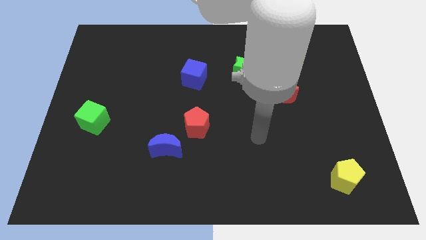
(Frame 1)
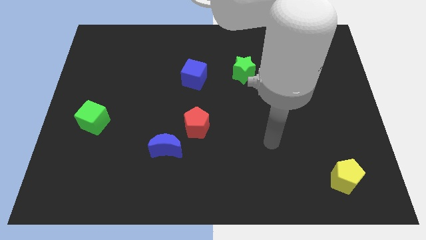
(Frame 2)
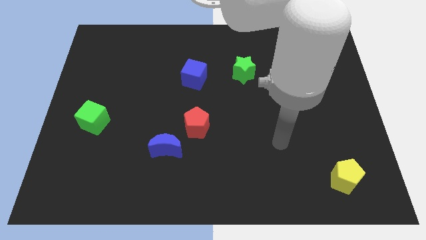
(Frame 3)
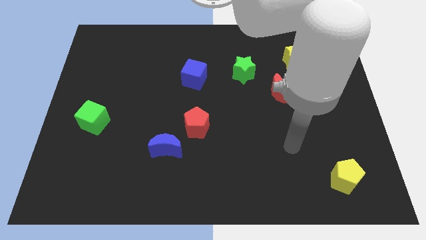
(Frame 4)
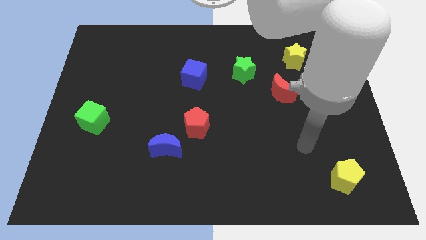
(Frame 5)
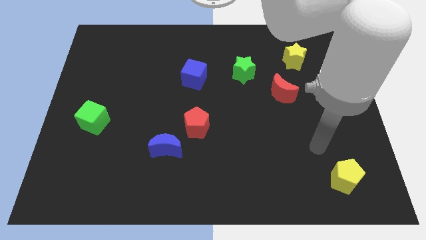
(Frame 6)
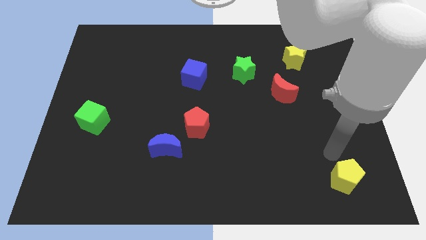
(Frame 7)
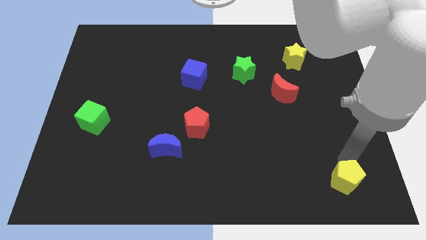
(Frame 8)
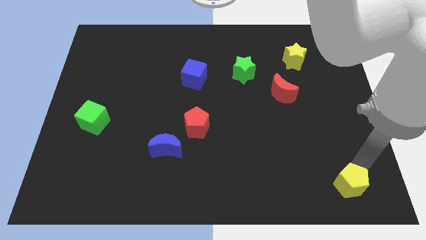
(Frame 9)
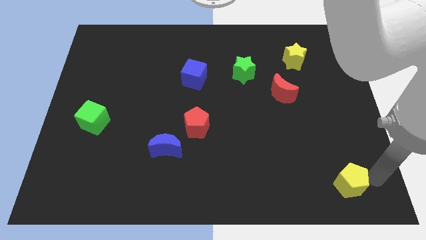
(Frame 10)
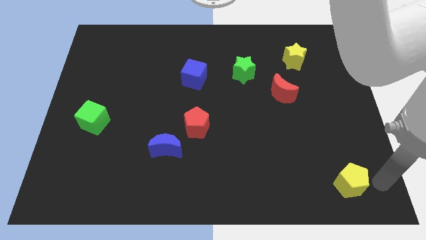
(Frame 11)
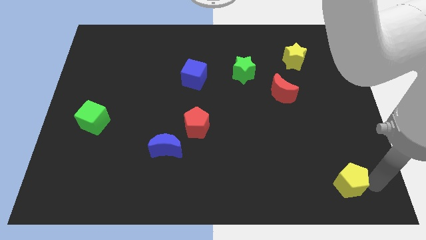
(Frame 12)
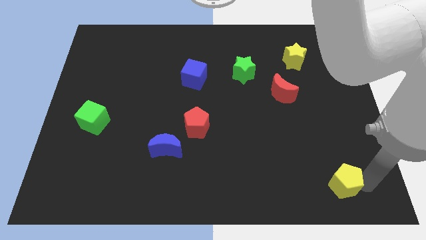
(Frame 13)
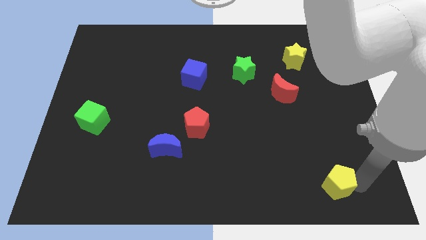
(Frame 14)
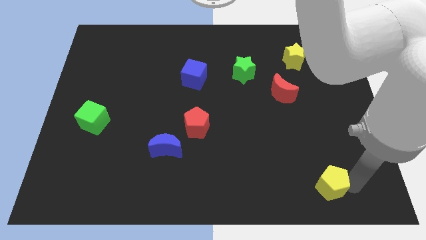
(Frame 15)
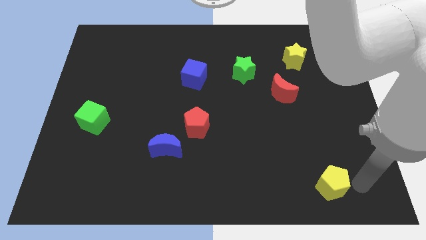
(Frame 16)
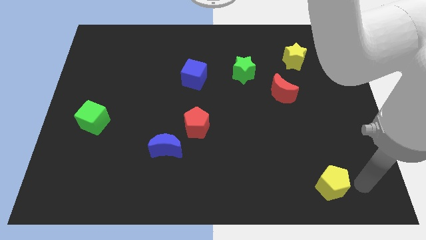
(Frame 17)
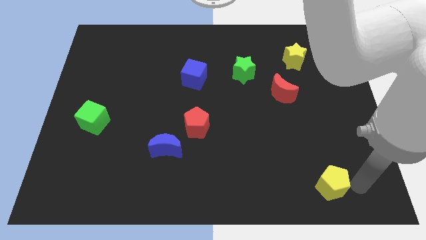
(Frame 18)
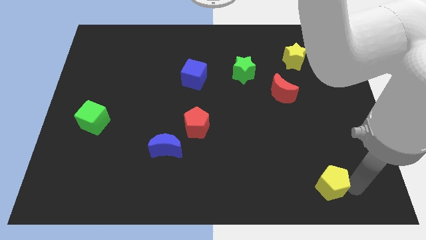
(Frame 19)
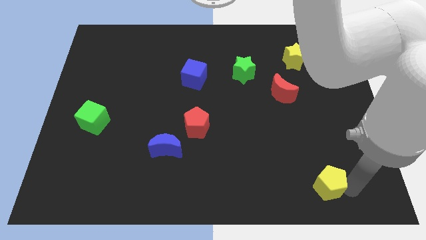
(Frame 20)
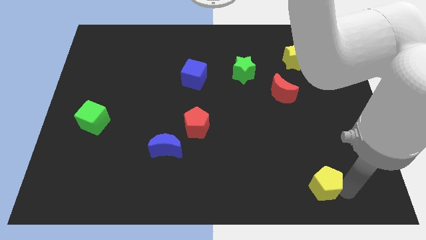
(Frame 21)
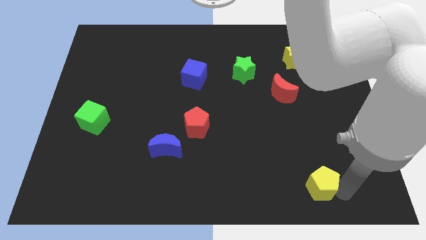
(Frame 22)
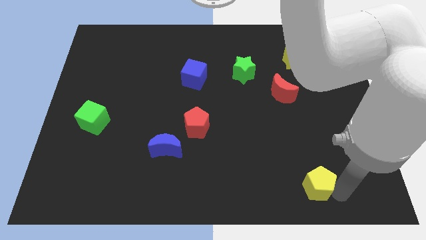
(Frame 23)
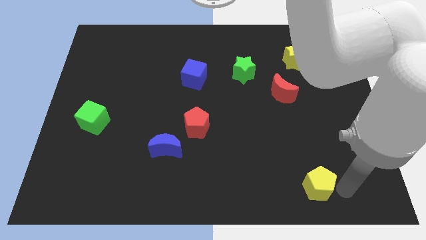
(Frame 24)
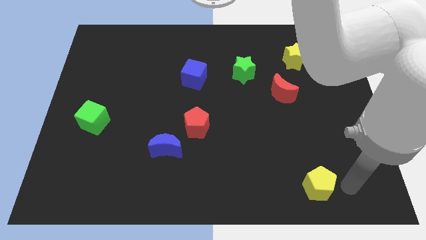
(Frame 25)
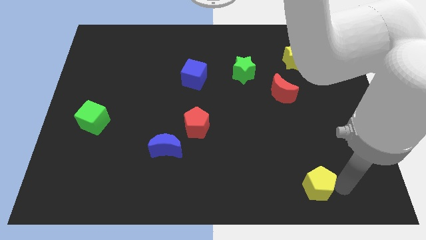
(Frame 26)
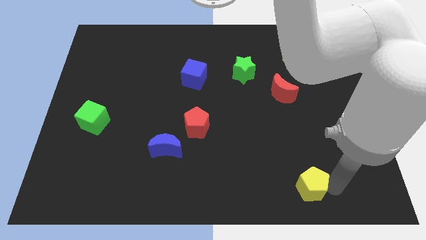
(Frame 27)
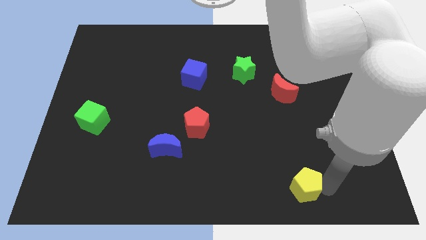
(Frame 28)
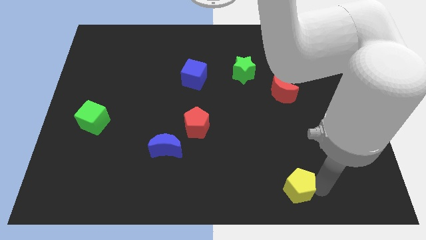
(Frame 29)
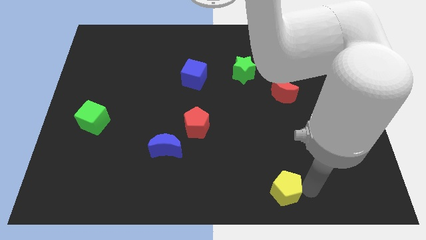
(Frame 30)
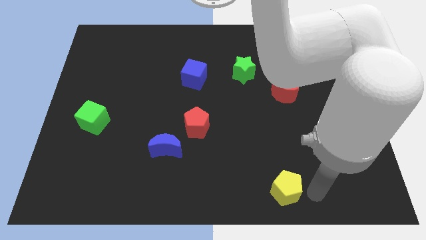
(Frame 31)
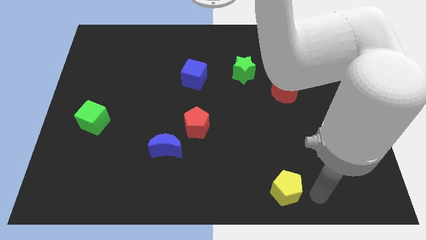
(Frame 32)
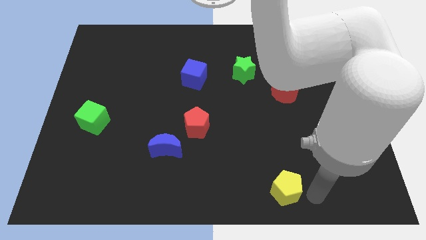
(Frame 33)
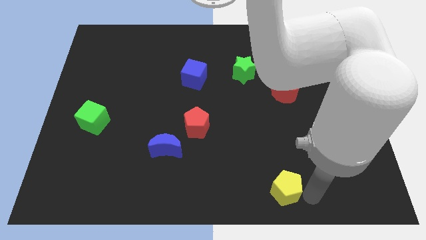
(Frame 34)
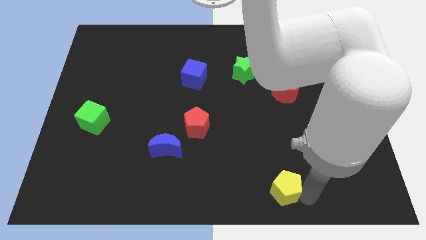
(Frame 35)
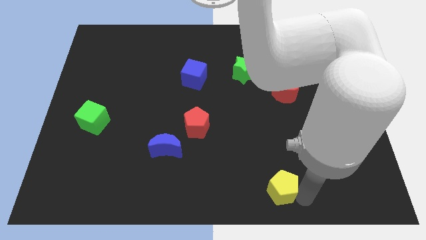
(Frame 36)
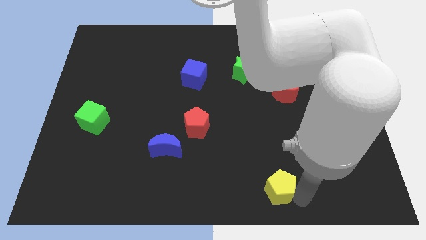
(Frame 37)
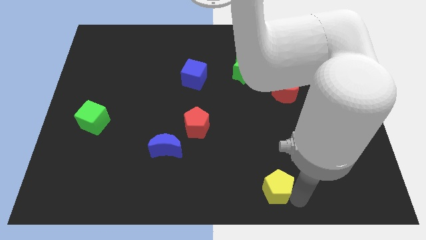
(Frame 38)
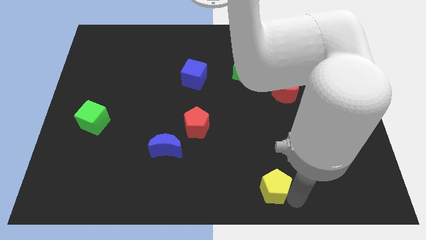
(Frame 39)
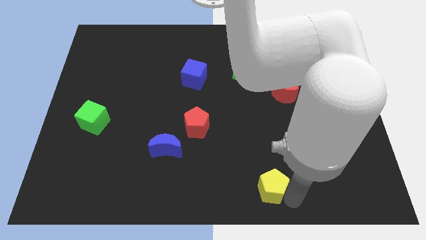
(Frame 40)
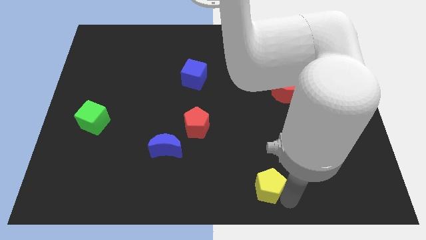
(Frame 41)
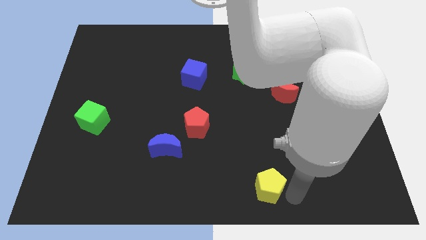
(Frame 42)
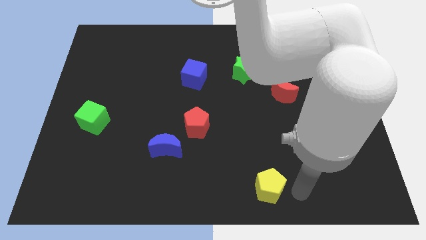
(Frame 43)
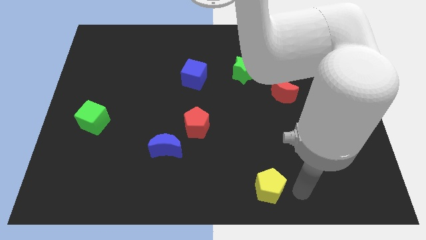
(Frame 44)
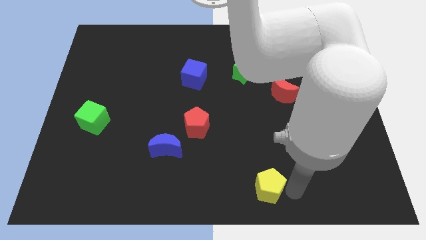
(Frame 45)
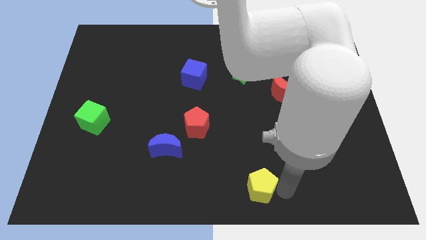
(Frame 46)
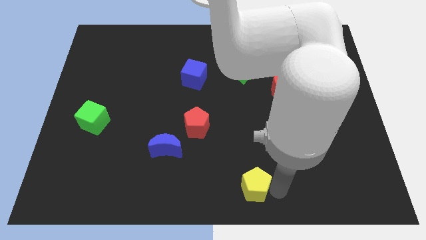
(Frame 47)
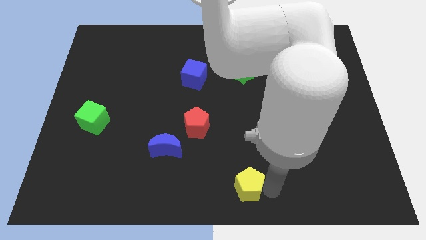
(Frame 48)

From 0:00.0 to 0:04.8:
move the yellow pentagon to the left

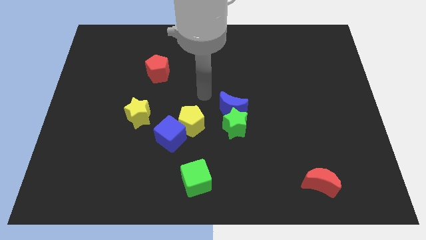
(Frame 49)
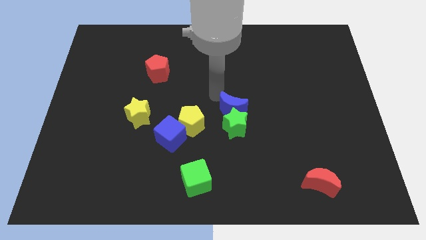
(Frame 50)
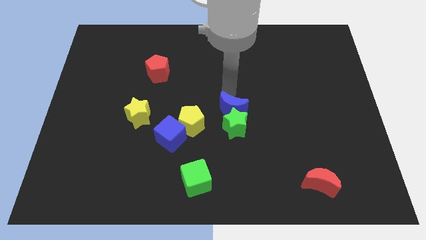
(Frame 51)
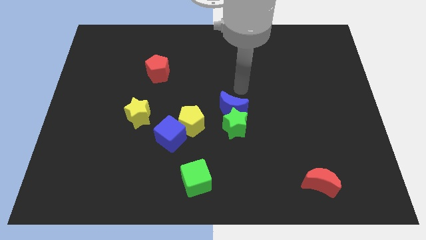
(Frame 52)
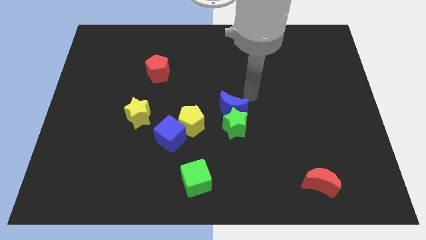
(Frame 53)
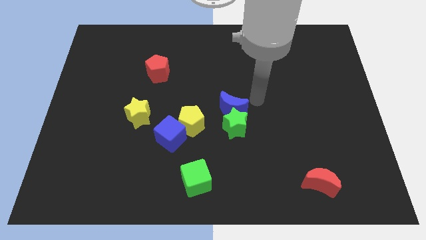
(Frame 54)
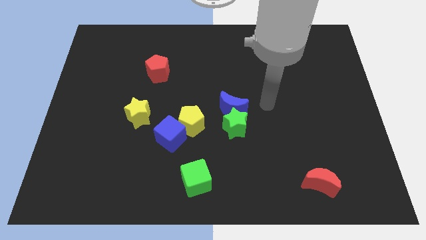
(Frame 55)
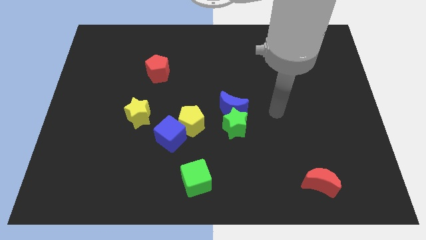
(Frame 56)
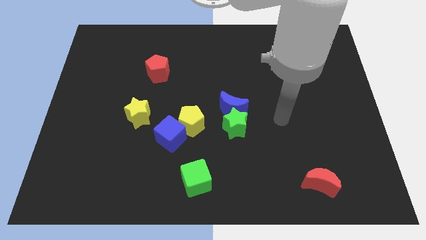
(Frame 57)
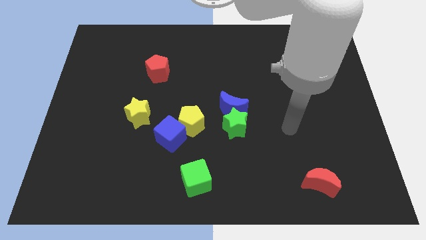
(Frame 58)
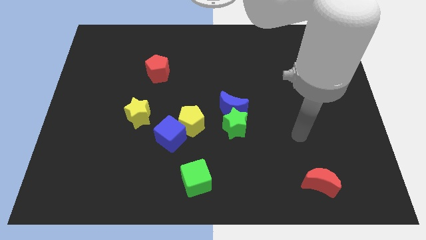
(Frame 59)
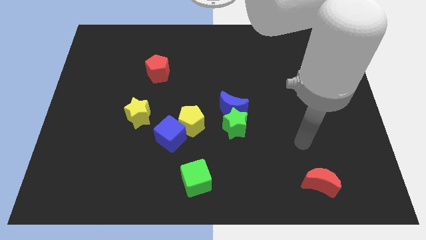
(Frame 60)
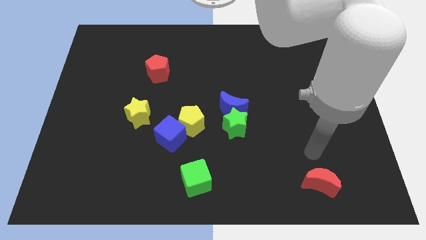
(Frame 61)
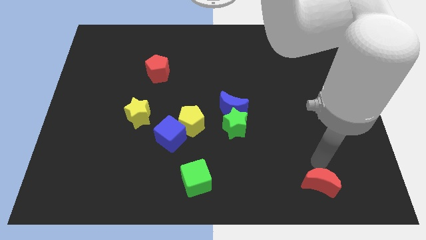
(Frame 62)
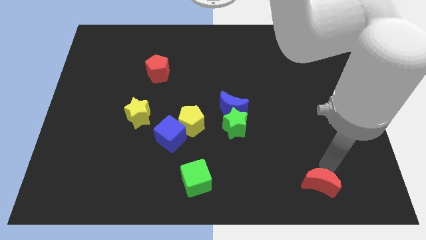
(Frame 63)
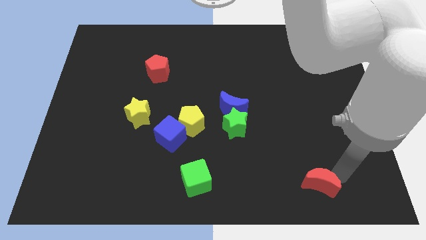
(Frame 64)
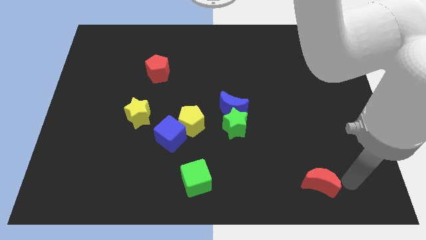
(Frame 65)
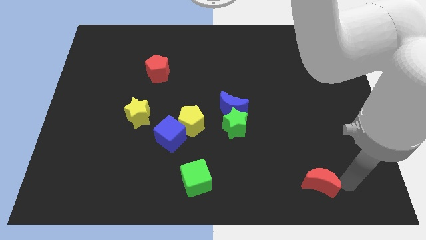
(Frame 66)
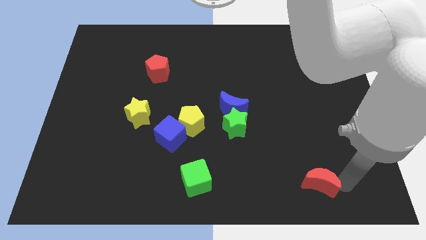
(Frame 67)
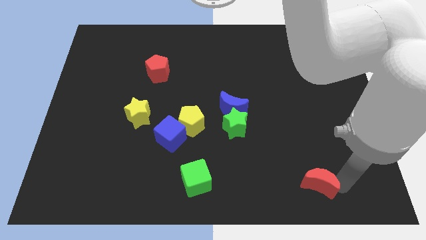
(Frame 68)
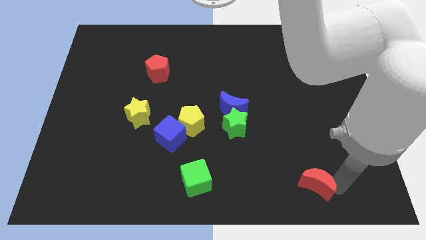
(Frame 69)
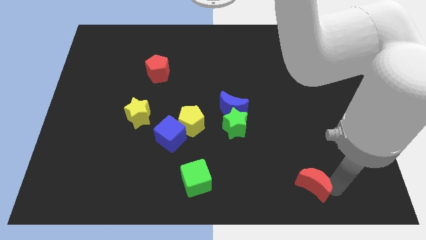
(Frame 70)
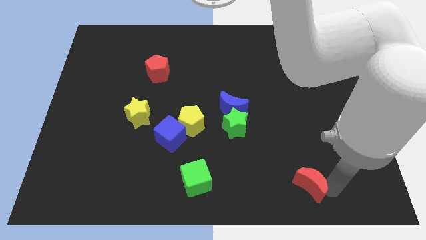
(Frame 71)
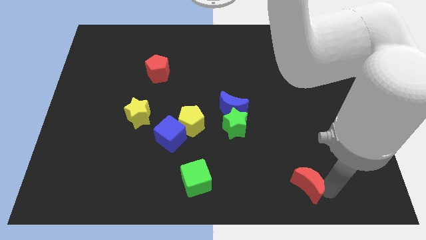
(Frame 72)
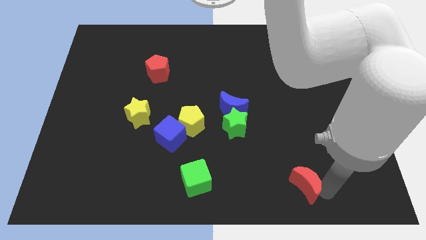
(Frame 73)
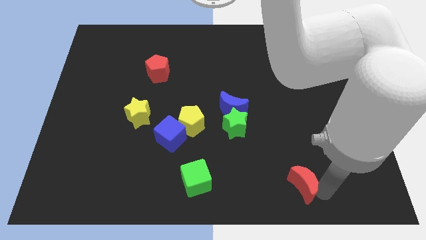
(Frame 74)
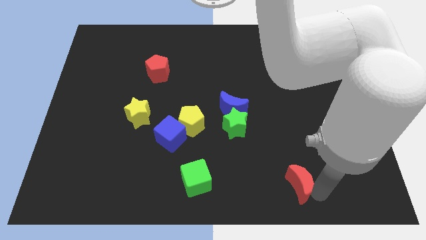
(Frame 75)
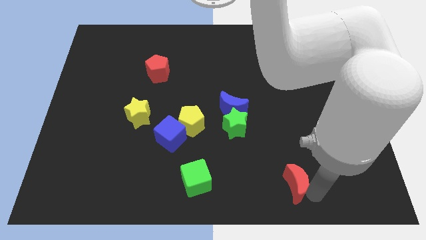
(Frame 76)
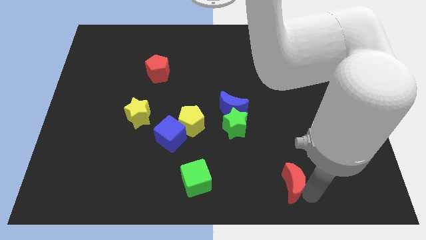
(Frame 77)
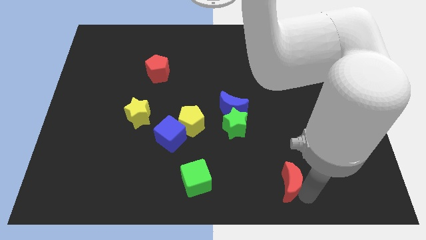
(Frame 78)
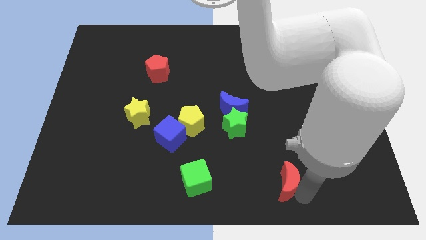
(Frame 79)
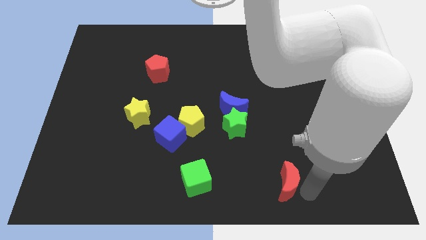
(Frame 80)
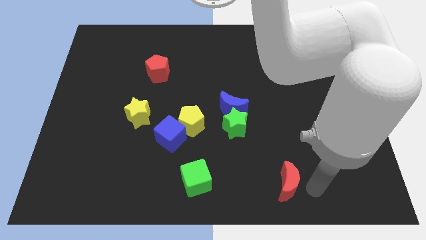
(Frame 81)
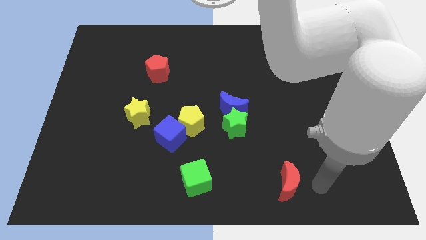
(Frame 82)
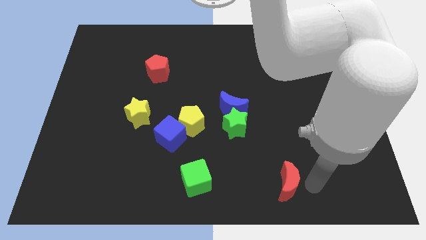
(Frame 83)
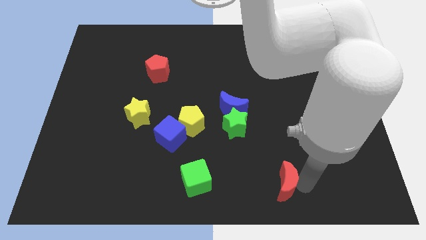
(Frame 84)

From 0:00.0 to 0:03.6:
slightly slide the red moon left
